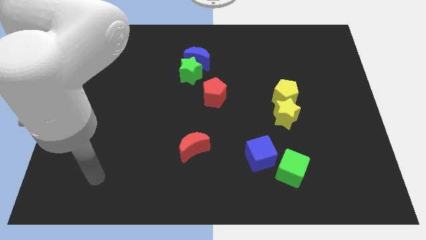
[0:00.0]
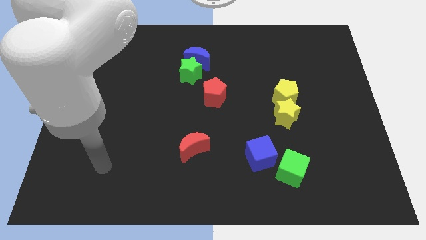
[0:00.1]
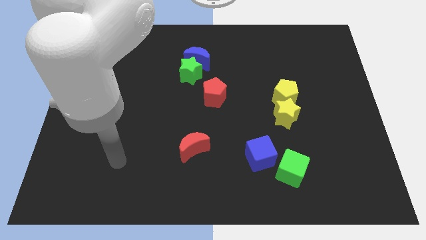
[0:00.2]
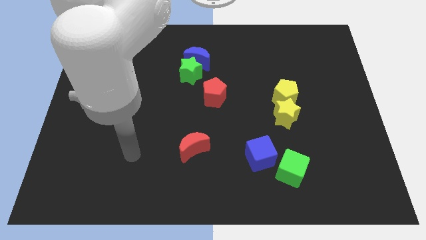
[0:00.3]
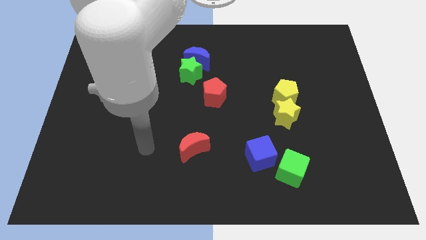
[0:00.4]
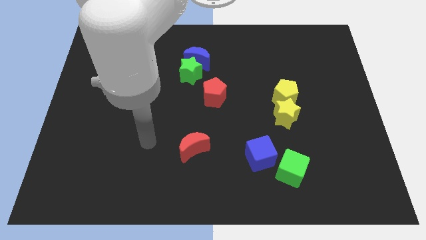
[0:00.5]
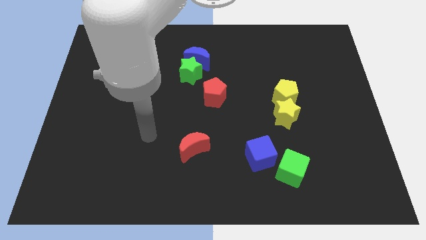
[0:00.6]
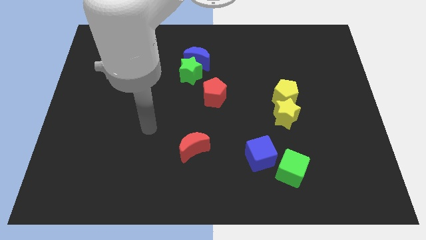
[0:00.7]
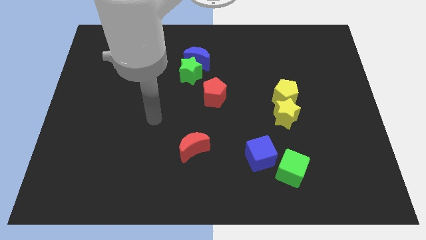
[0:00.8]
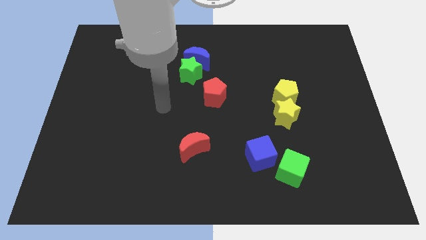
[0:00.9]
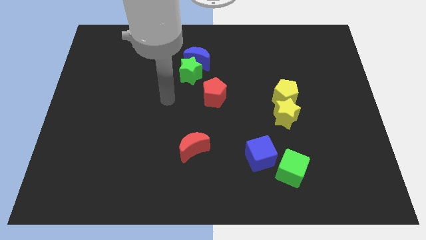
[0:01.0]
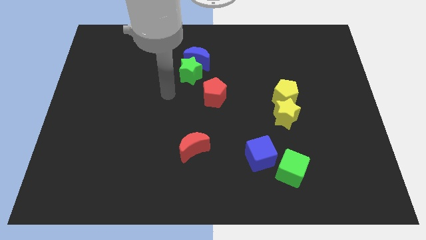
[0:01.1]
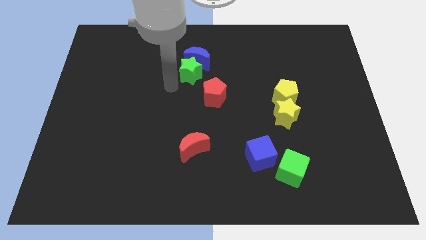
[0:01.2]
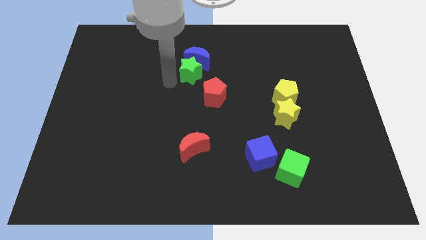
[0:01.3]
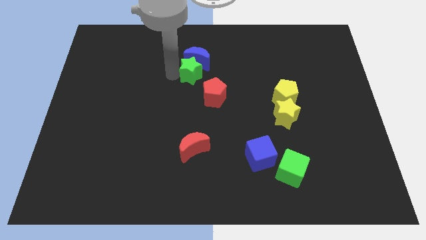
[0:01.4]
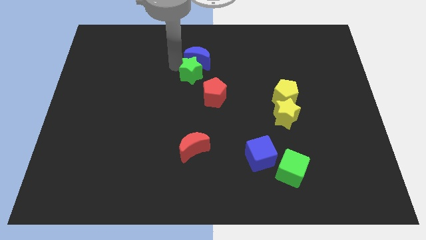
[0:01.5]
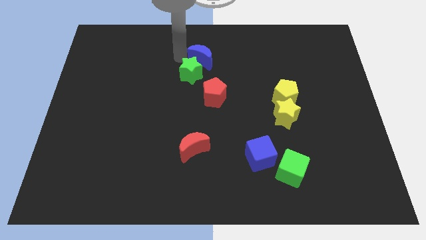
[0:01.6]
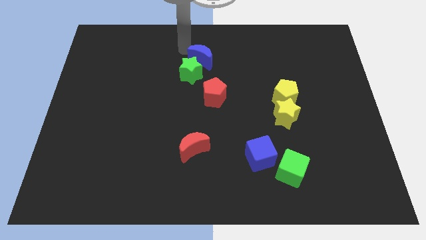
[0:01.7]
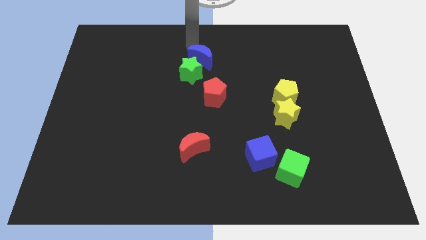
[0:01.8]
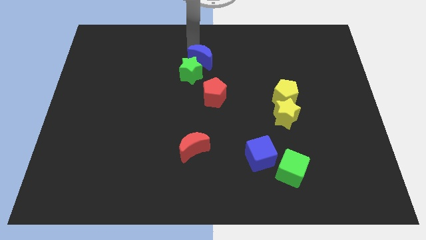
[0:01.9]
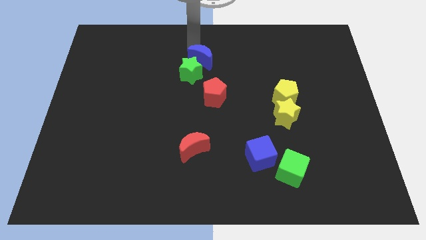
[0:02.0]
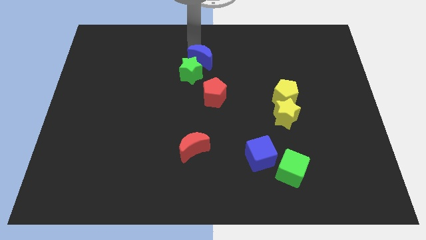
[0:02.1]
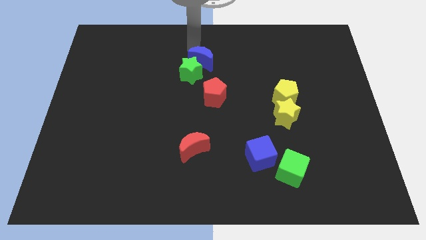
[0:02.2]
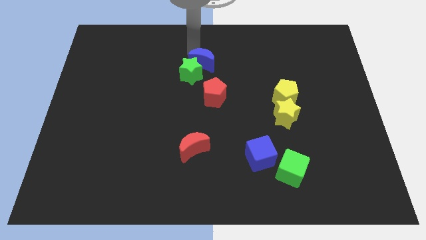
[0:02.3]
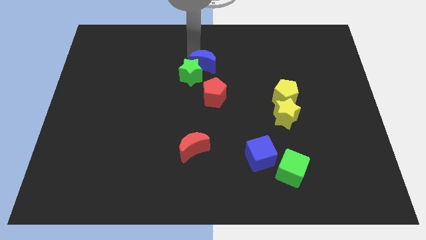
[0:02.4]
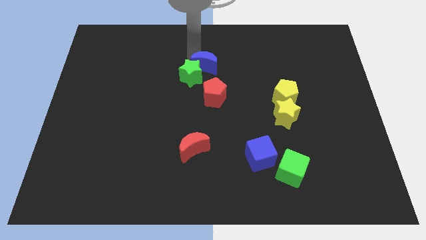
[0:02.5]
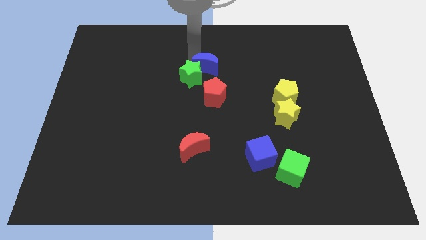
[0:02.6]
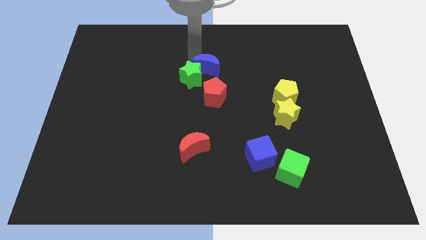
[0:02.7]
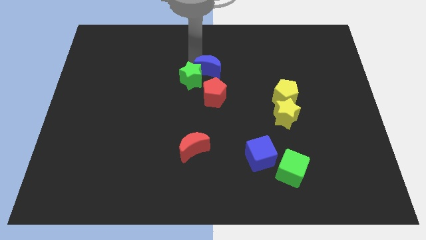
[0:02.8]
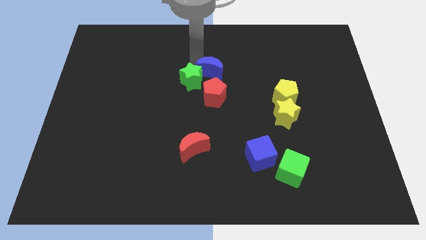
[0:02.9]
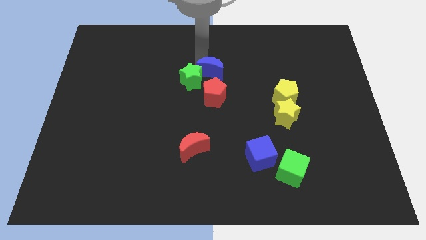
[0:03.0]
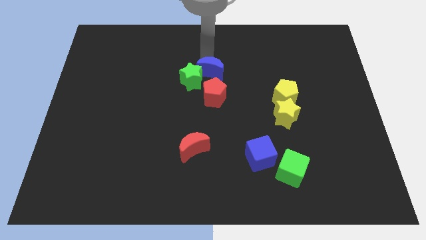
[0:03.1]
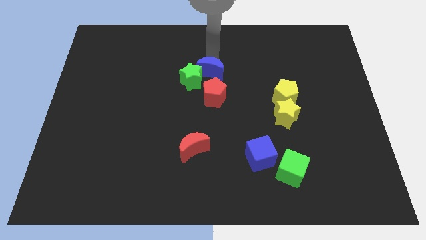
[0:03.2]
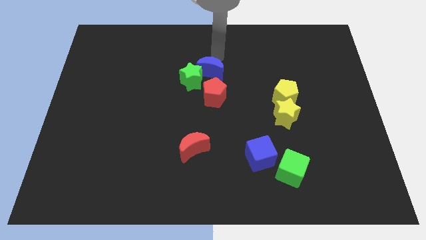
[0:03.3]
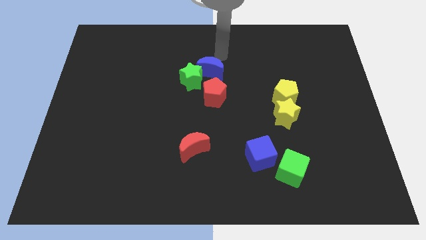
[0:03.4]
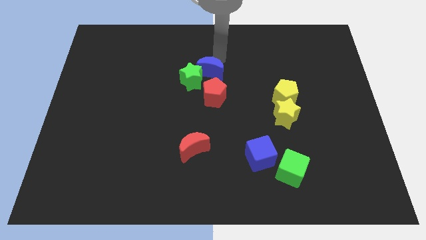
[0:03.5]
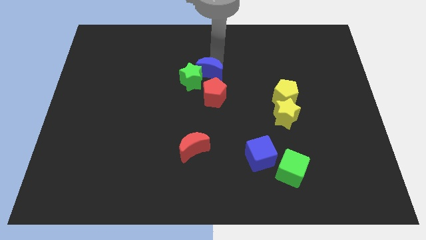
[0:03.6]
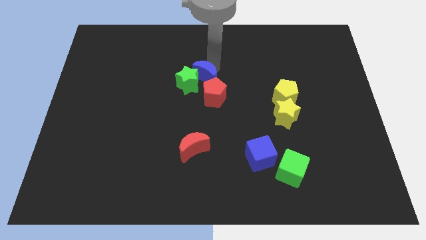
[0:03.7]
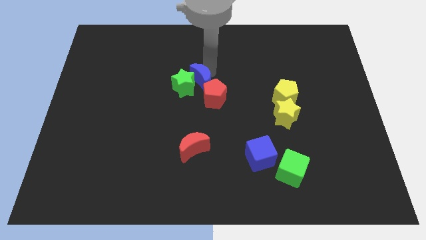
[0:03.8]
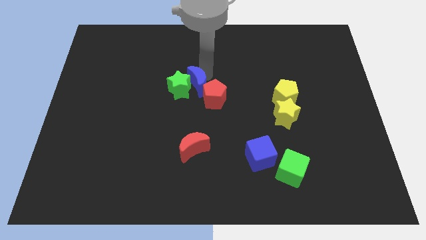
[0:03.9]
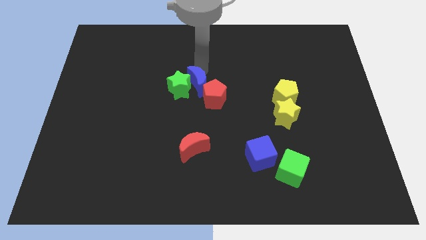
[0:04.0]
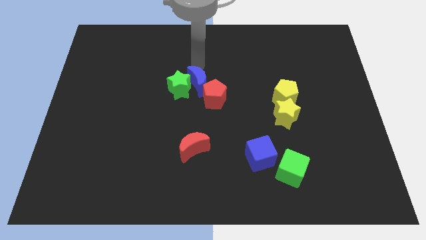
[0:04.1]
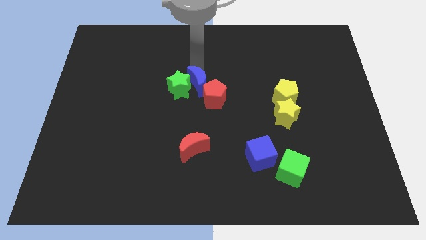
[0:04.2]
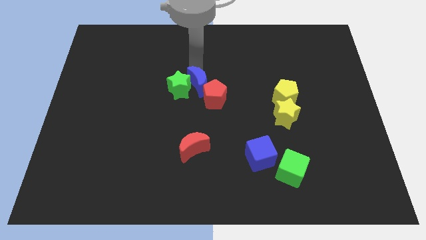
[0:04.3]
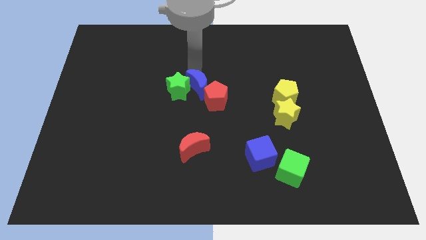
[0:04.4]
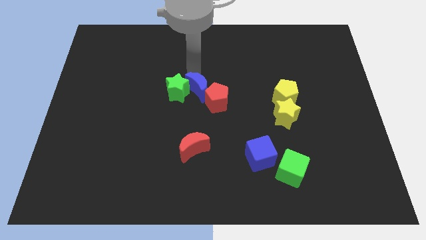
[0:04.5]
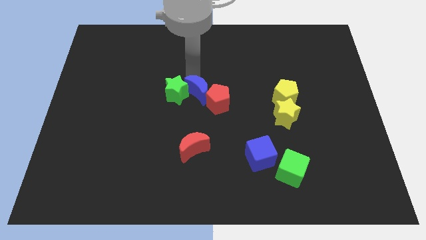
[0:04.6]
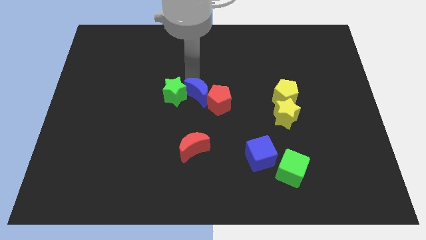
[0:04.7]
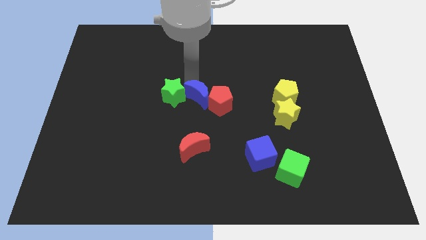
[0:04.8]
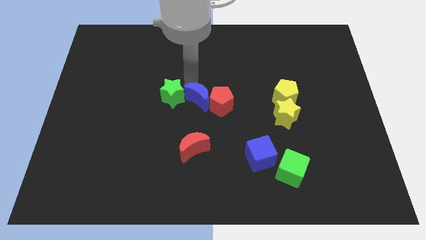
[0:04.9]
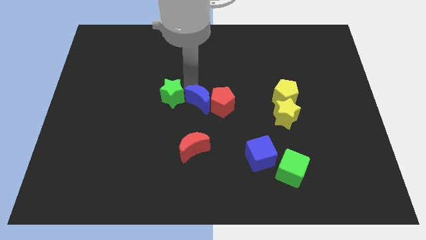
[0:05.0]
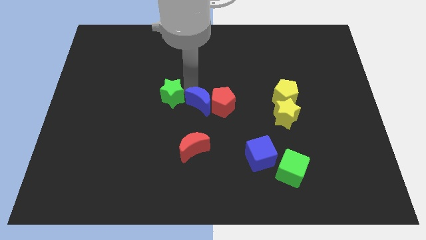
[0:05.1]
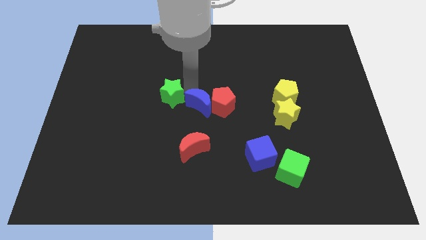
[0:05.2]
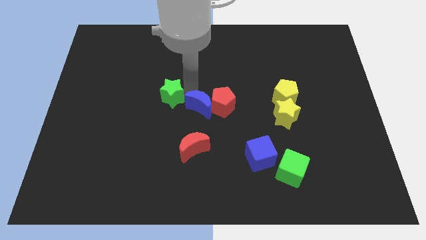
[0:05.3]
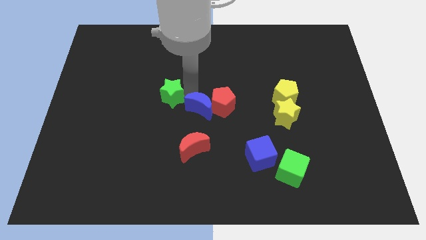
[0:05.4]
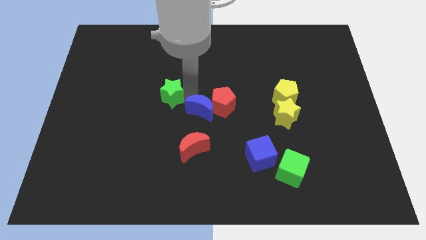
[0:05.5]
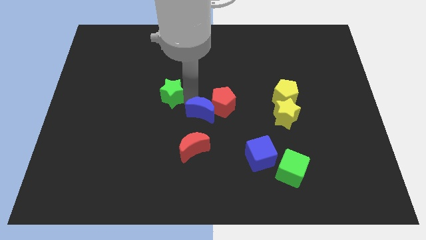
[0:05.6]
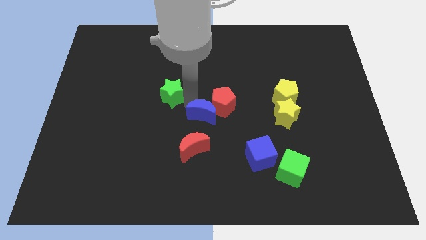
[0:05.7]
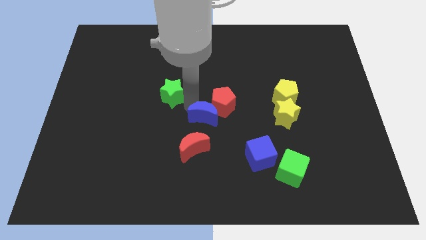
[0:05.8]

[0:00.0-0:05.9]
push the blue moon to the top right side of the red moon

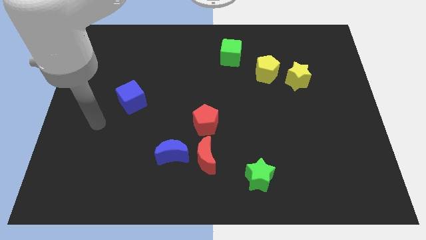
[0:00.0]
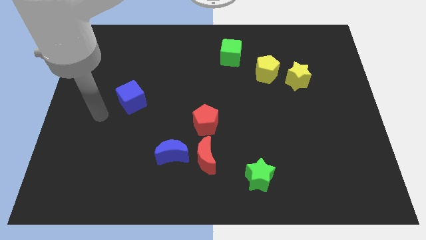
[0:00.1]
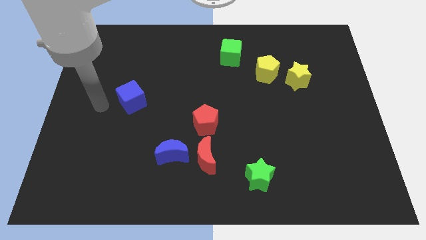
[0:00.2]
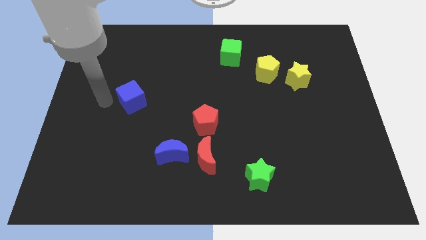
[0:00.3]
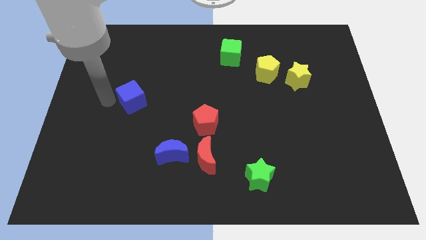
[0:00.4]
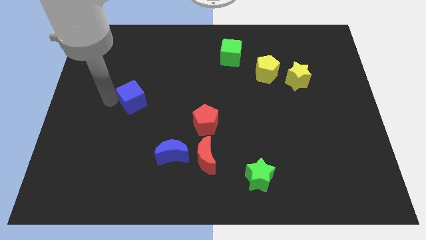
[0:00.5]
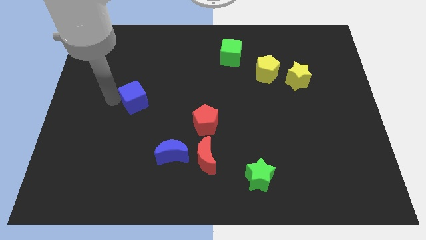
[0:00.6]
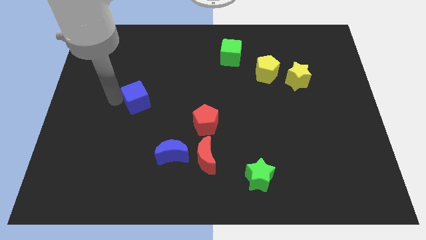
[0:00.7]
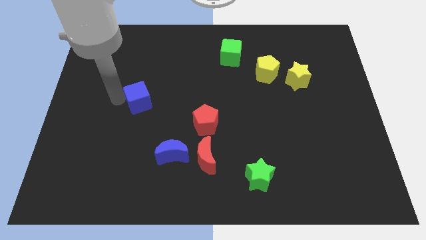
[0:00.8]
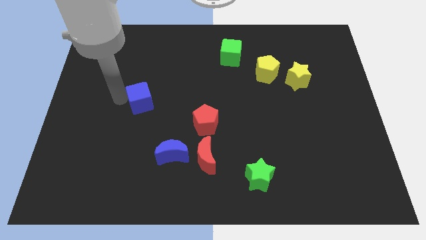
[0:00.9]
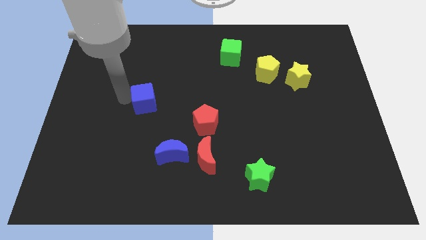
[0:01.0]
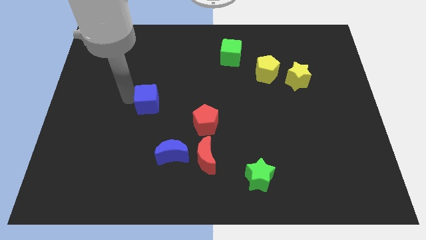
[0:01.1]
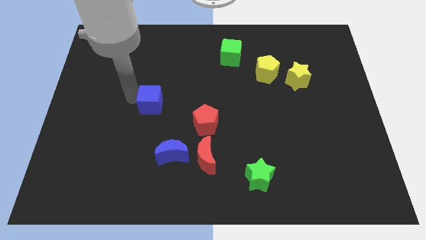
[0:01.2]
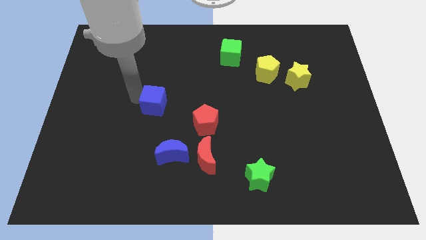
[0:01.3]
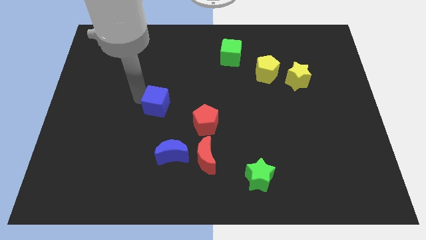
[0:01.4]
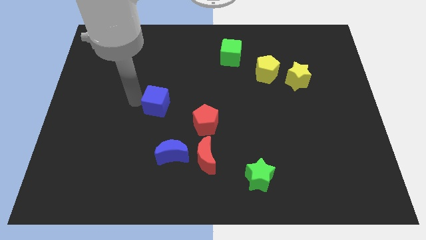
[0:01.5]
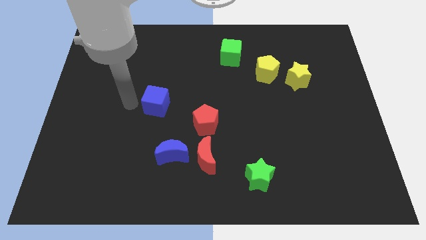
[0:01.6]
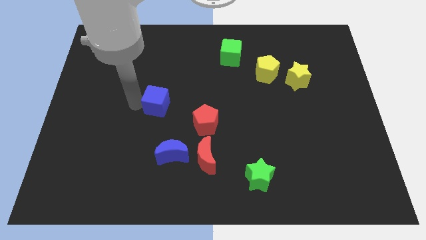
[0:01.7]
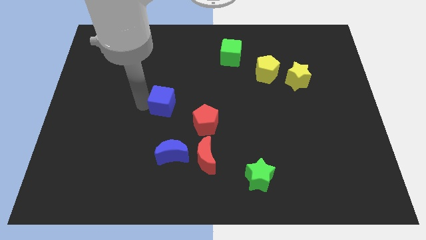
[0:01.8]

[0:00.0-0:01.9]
slide the blue cube to the top left of the red pentagon

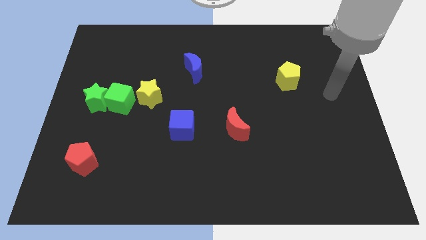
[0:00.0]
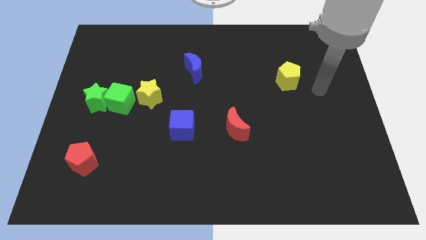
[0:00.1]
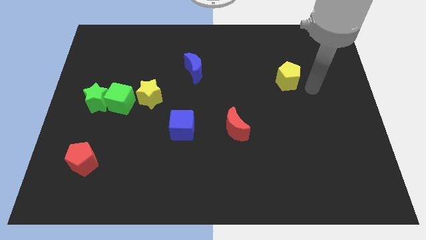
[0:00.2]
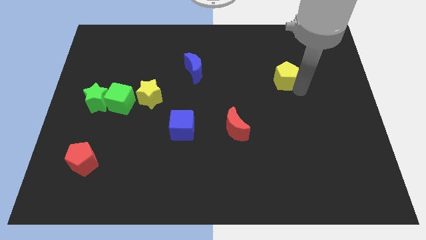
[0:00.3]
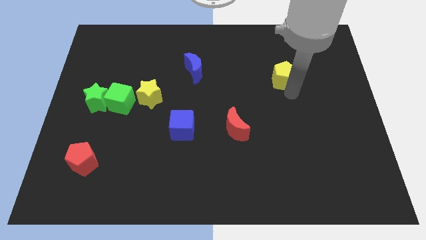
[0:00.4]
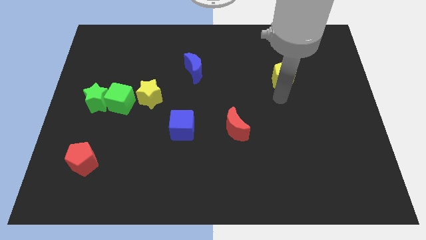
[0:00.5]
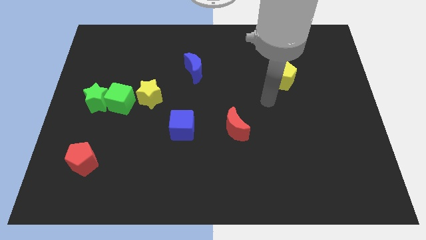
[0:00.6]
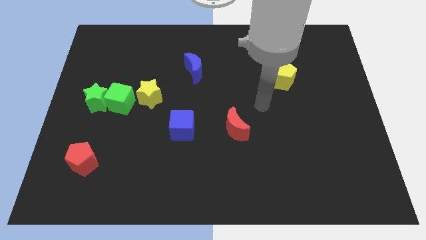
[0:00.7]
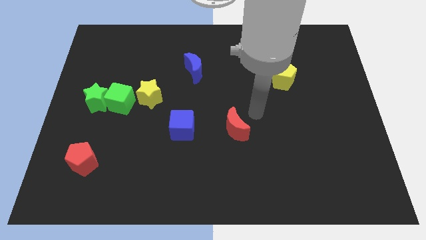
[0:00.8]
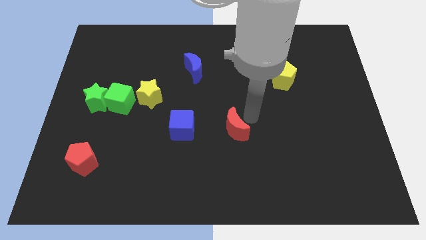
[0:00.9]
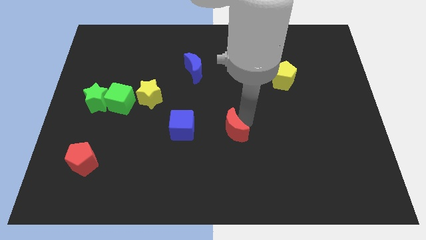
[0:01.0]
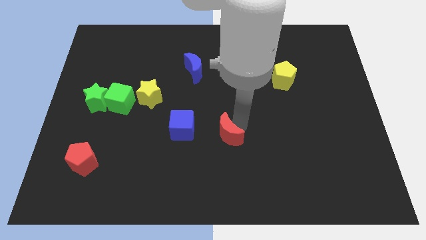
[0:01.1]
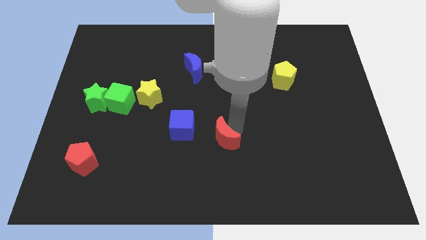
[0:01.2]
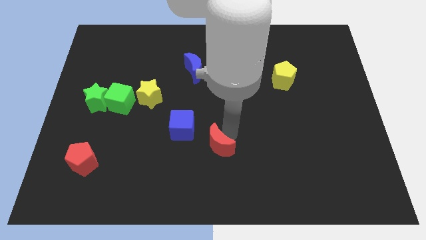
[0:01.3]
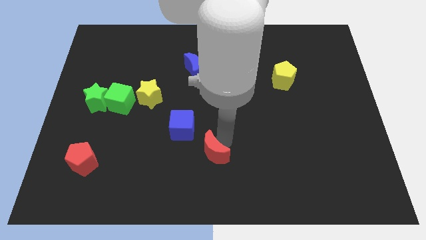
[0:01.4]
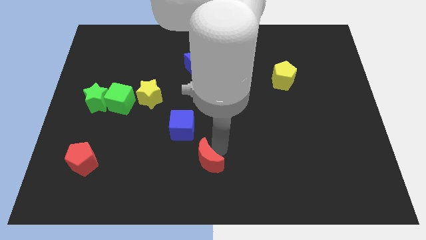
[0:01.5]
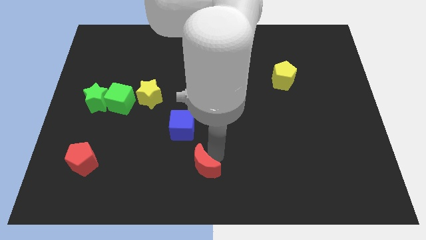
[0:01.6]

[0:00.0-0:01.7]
move the red moon below the blue cube
